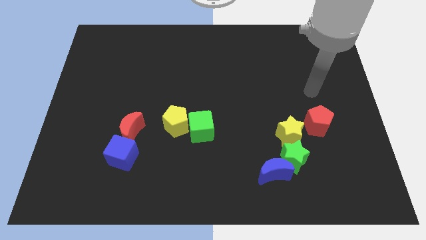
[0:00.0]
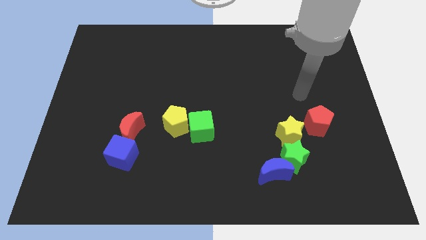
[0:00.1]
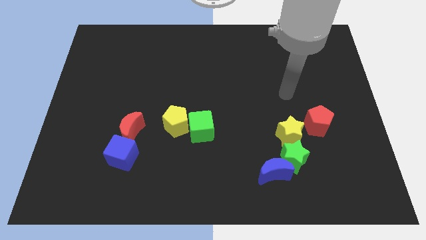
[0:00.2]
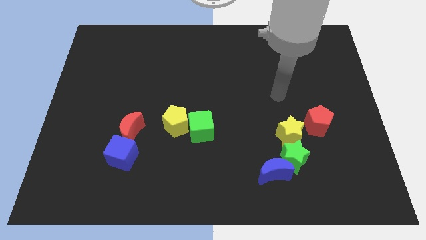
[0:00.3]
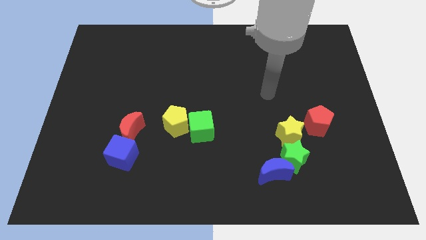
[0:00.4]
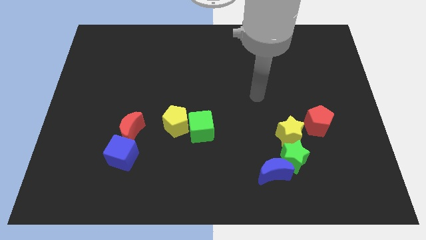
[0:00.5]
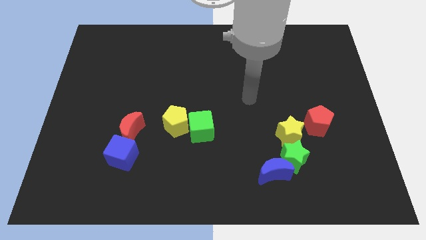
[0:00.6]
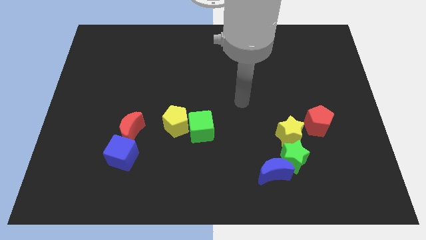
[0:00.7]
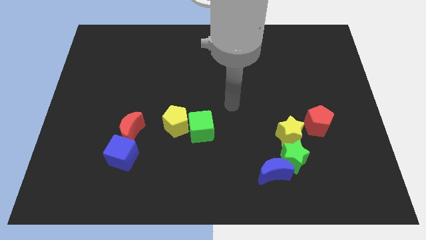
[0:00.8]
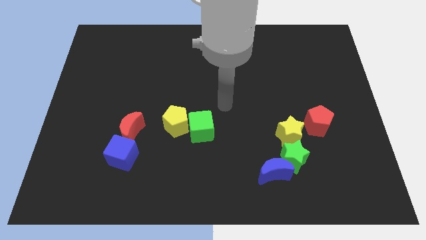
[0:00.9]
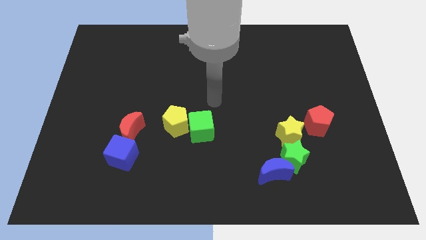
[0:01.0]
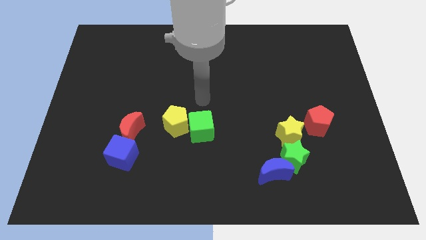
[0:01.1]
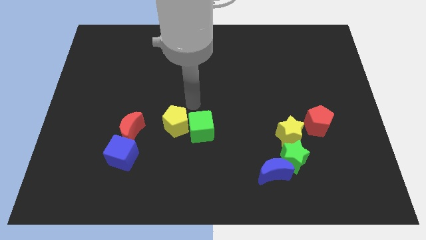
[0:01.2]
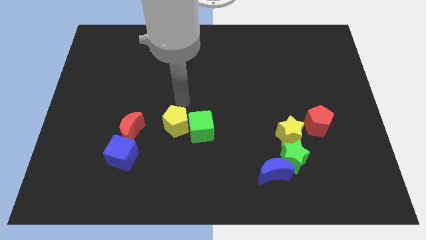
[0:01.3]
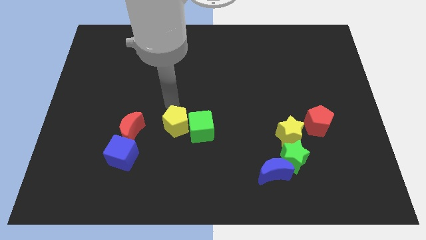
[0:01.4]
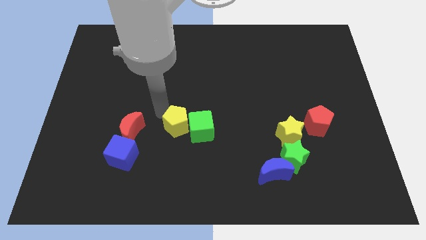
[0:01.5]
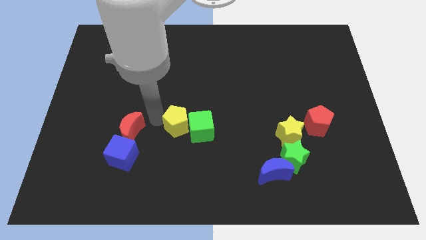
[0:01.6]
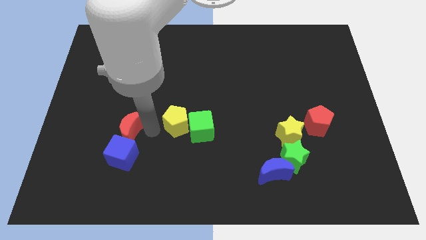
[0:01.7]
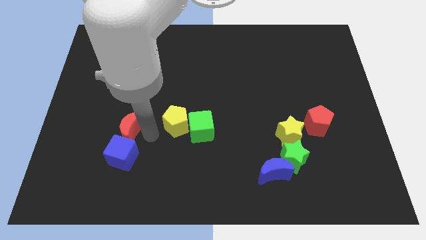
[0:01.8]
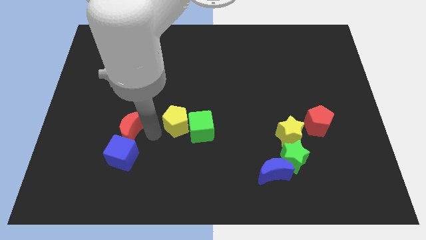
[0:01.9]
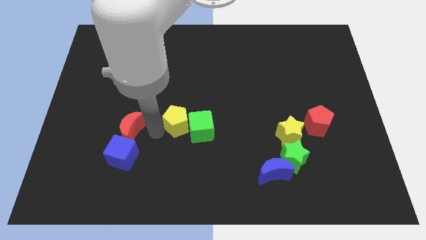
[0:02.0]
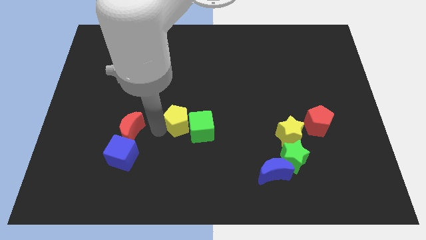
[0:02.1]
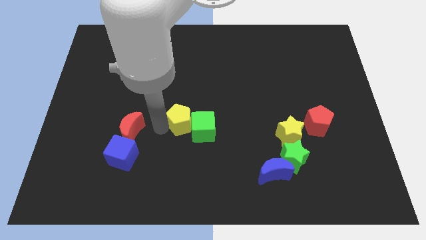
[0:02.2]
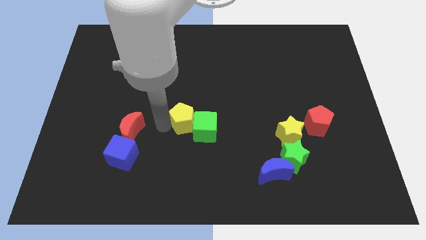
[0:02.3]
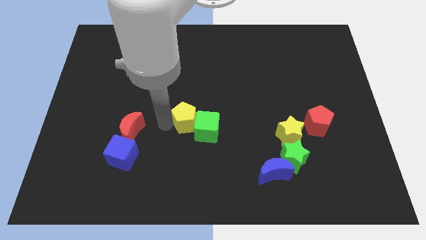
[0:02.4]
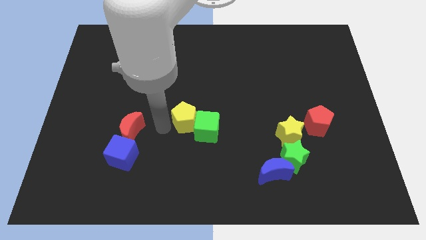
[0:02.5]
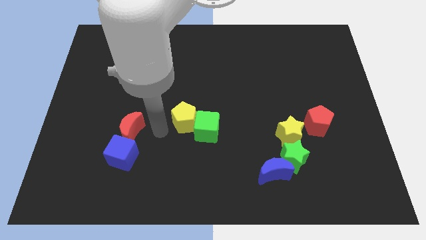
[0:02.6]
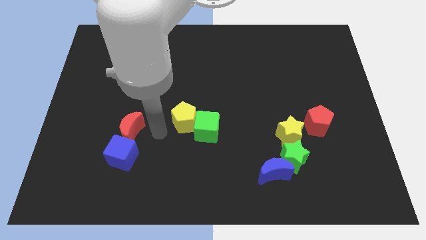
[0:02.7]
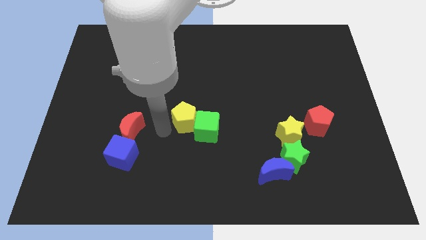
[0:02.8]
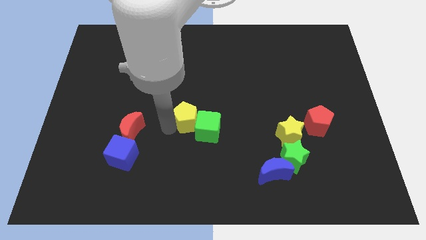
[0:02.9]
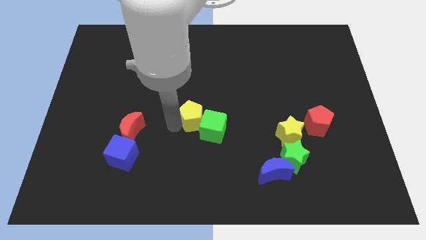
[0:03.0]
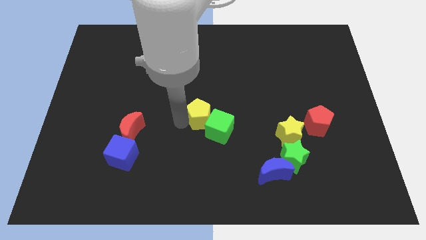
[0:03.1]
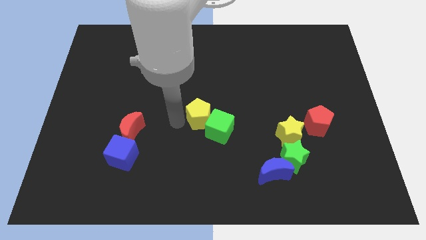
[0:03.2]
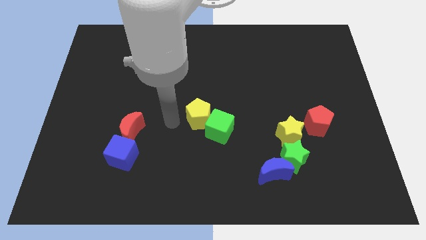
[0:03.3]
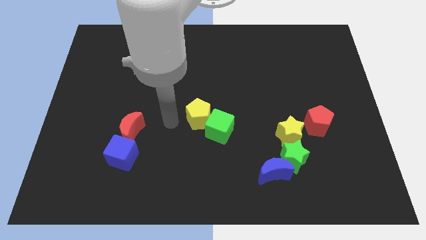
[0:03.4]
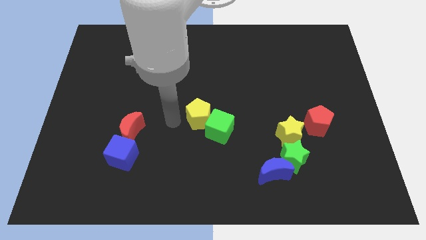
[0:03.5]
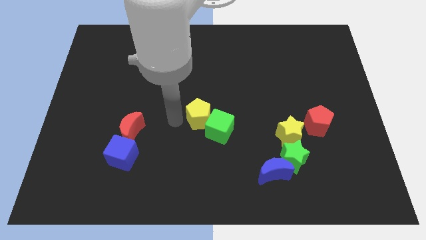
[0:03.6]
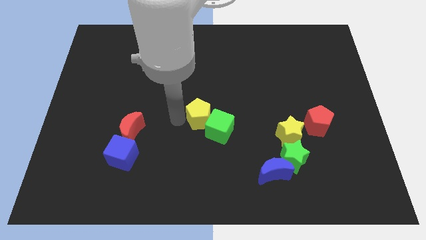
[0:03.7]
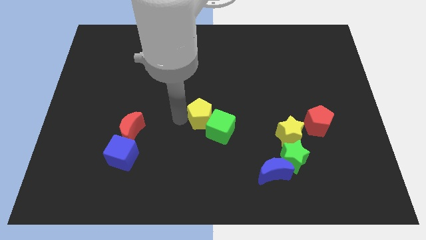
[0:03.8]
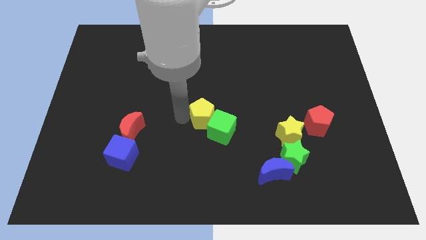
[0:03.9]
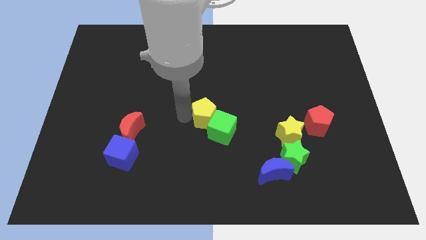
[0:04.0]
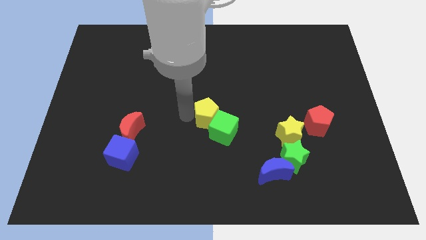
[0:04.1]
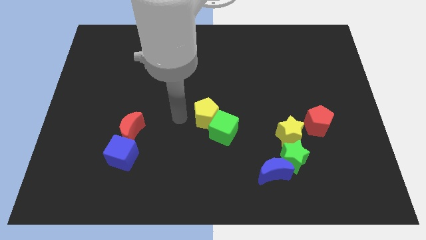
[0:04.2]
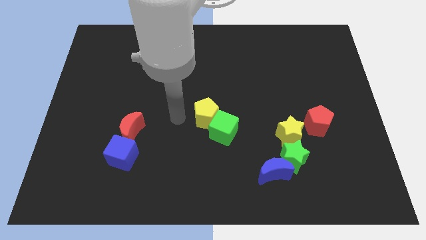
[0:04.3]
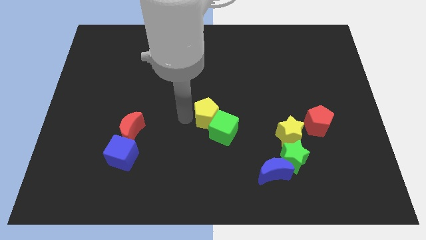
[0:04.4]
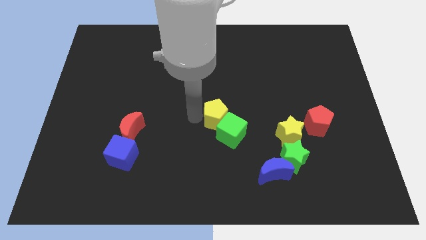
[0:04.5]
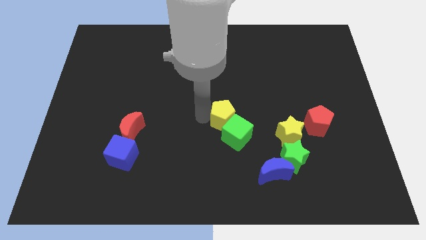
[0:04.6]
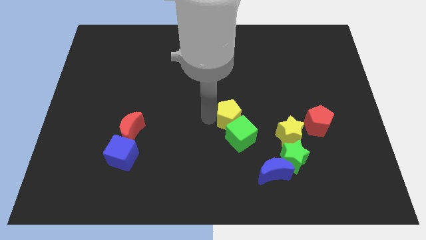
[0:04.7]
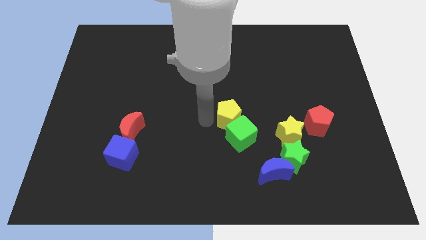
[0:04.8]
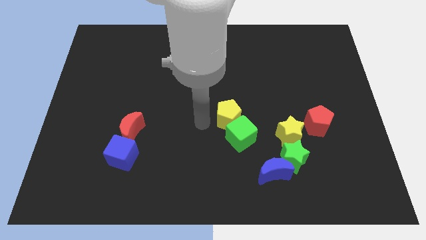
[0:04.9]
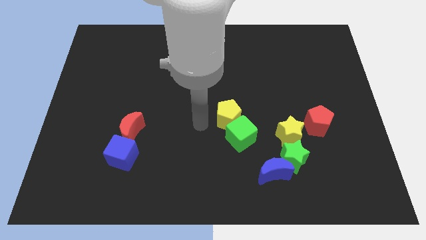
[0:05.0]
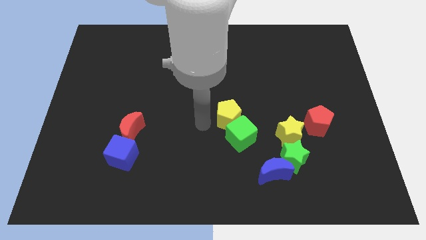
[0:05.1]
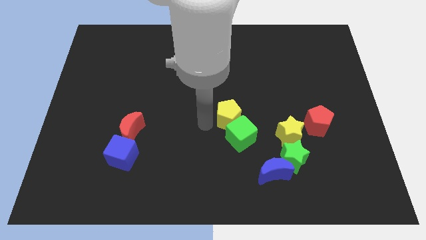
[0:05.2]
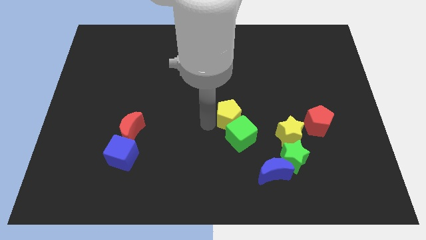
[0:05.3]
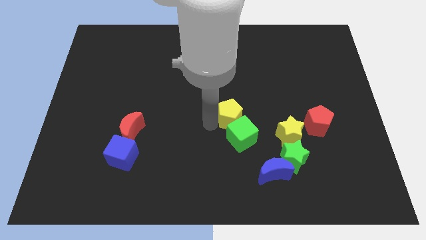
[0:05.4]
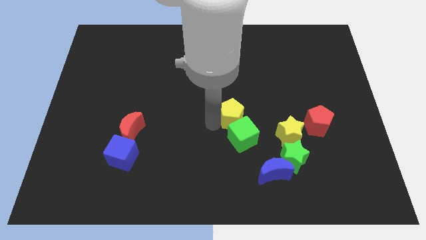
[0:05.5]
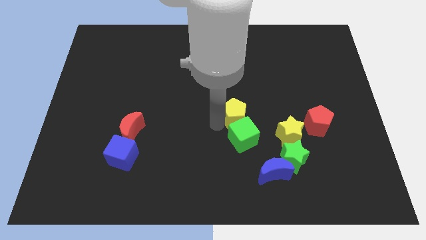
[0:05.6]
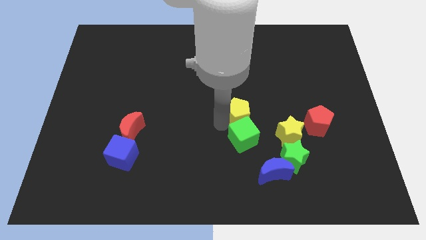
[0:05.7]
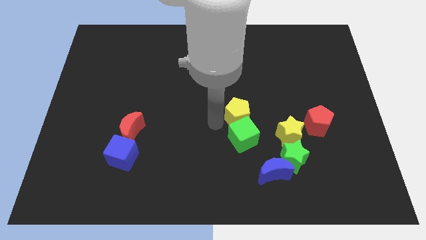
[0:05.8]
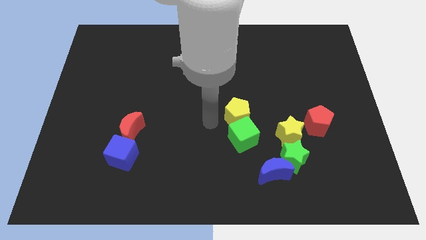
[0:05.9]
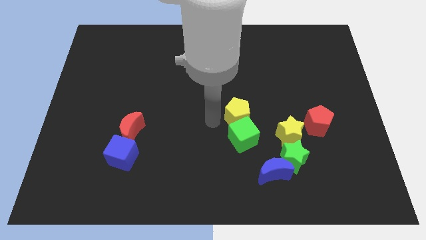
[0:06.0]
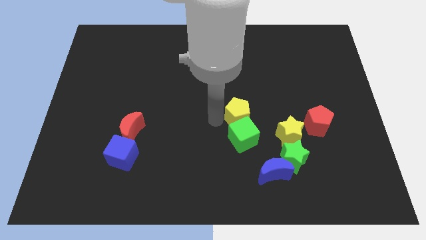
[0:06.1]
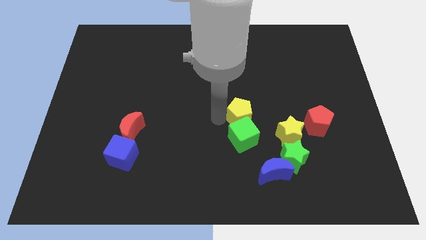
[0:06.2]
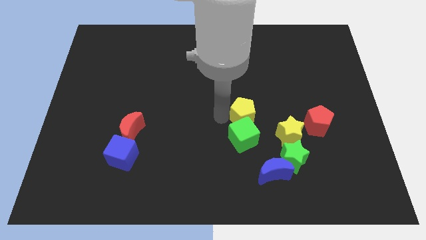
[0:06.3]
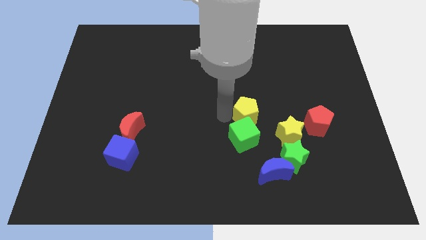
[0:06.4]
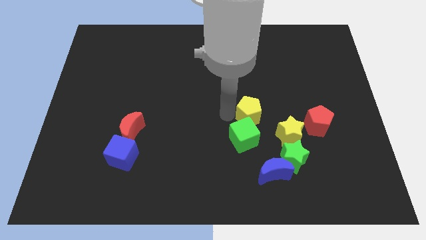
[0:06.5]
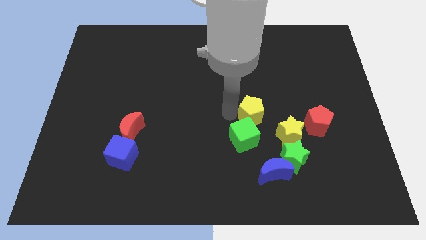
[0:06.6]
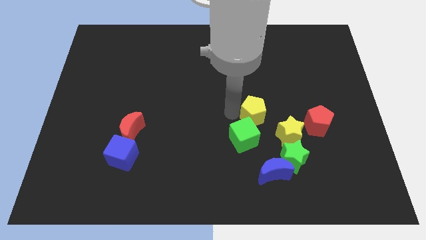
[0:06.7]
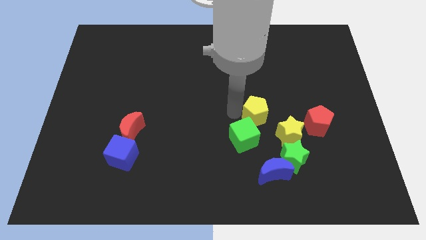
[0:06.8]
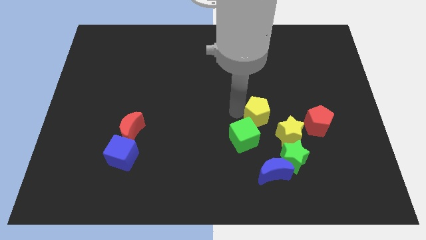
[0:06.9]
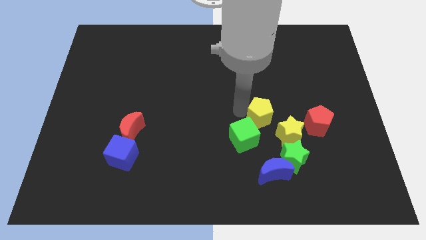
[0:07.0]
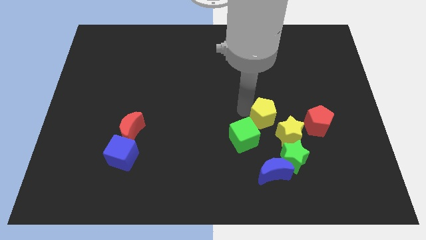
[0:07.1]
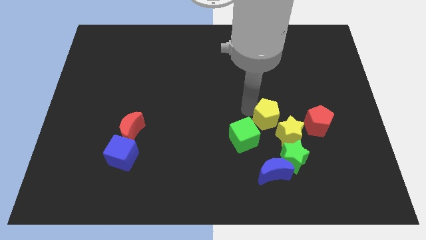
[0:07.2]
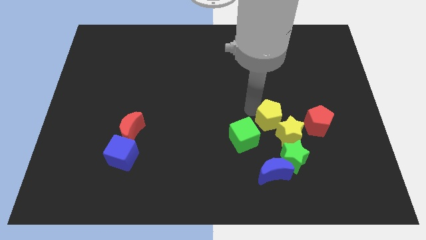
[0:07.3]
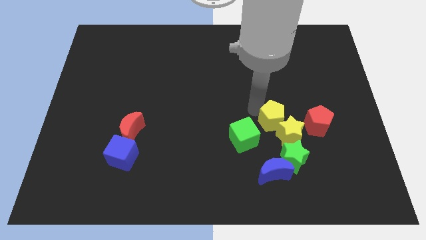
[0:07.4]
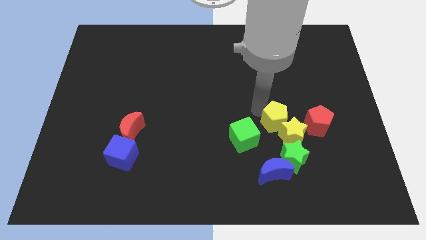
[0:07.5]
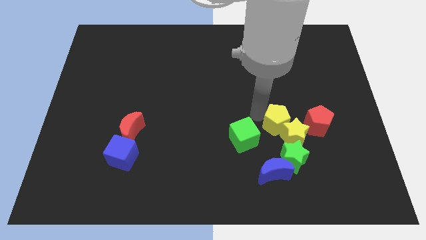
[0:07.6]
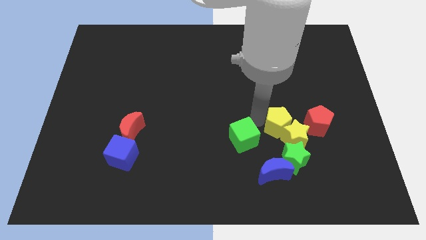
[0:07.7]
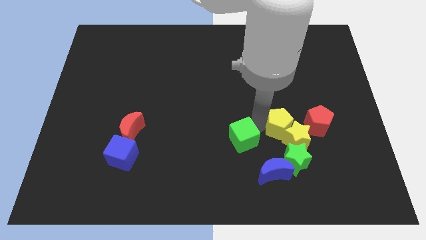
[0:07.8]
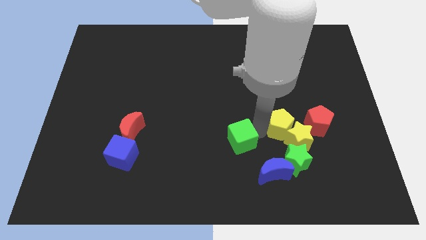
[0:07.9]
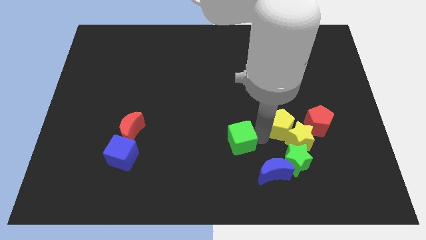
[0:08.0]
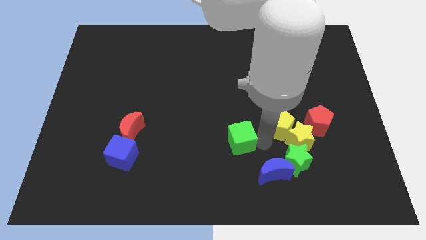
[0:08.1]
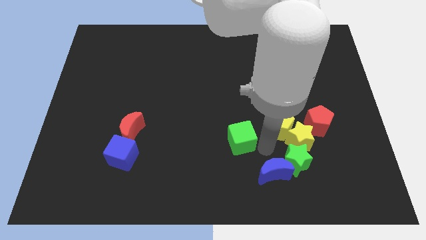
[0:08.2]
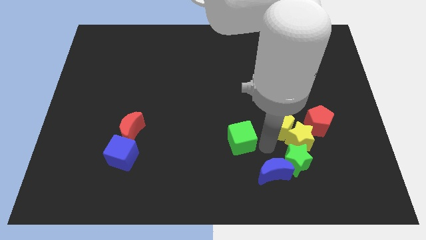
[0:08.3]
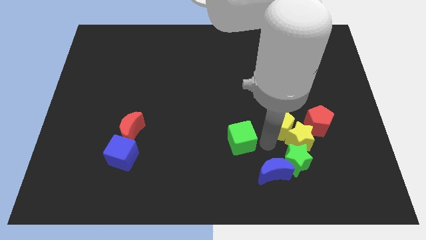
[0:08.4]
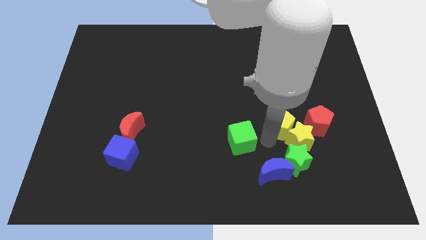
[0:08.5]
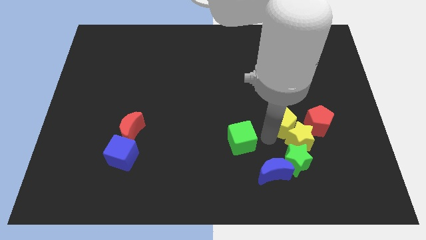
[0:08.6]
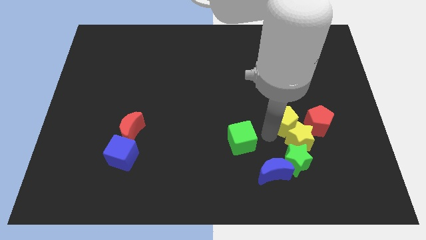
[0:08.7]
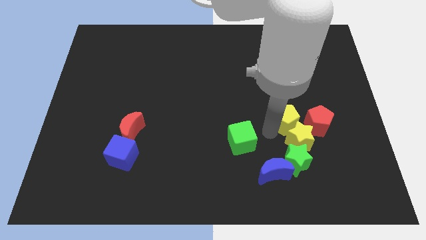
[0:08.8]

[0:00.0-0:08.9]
slide the yellow pentagon to the top left side of the red pentagon
